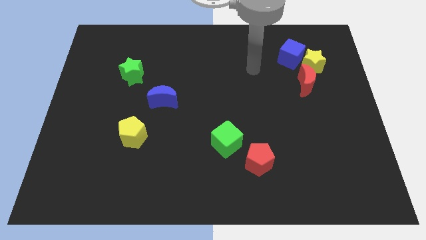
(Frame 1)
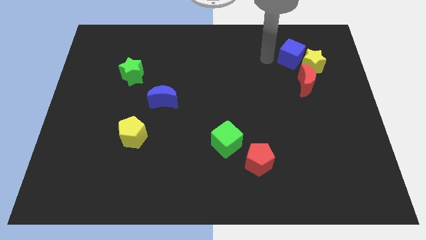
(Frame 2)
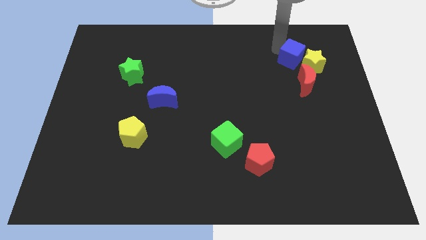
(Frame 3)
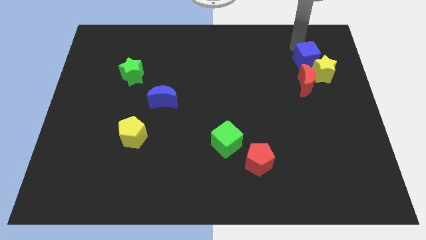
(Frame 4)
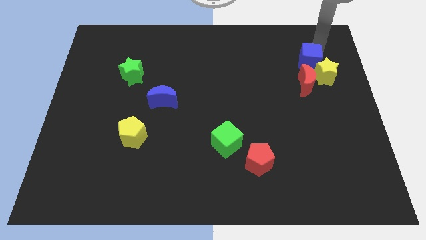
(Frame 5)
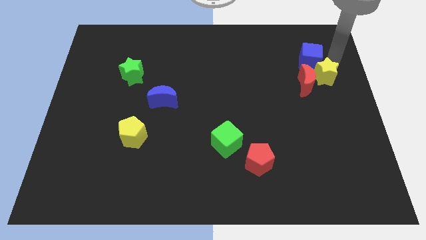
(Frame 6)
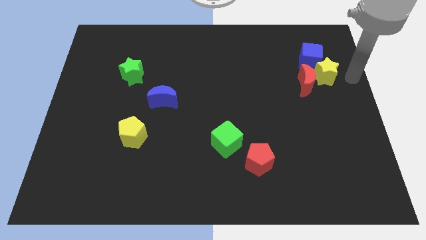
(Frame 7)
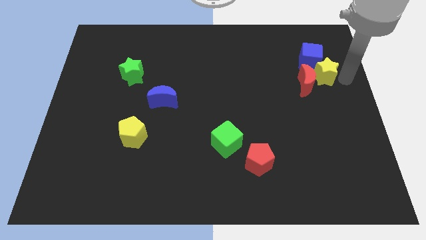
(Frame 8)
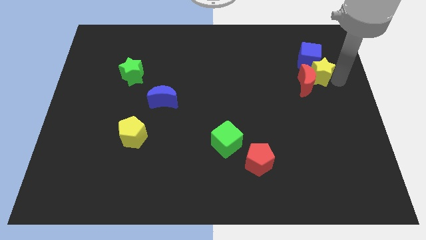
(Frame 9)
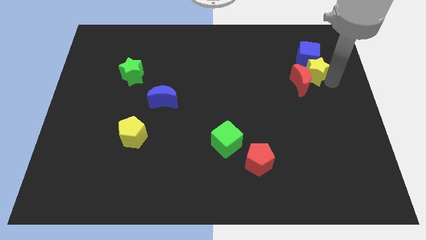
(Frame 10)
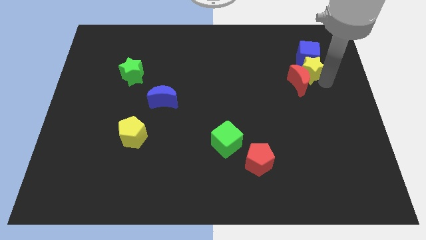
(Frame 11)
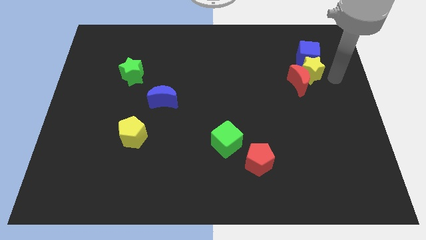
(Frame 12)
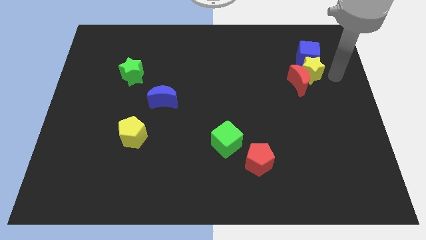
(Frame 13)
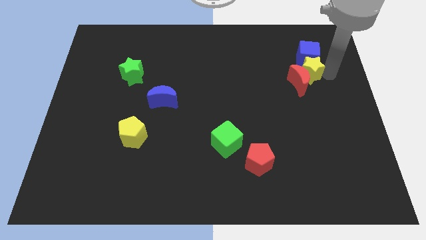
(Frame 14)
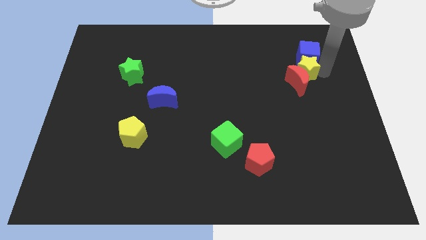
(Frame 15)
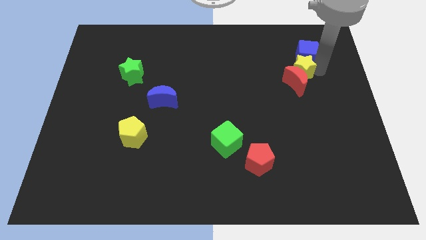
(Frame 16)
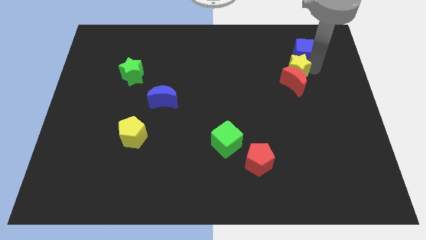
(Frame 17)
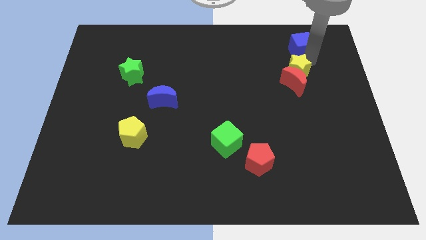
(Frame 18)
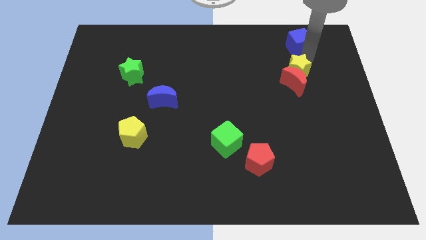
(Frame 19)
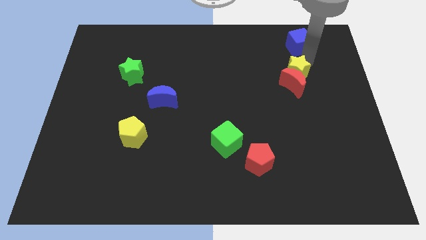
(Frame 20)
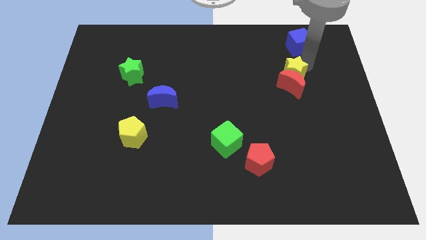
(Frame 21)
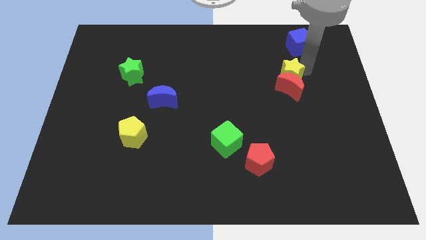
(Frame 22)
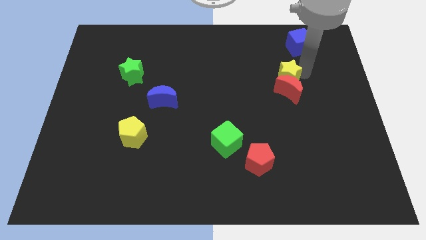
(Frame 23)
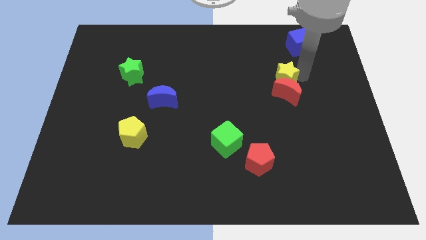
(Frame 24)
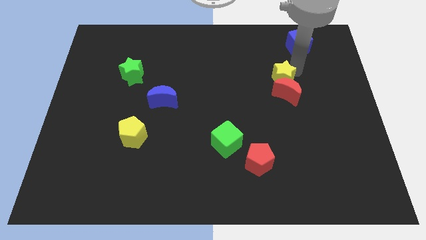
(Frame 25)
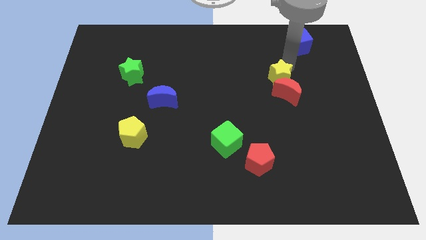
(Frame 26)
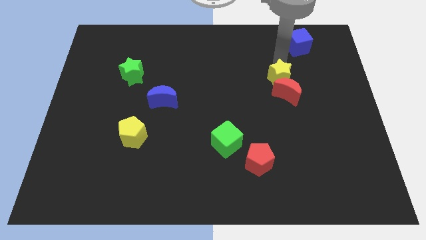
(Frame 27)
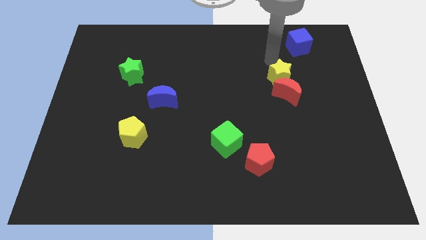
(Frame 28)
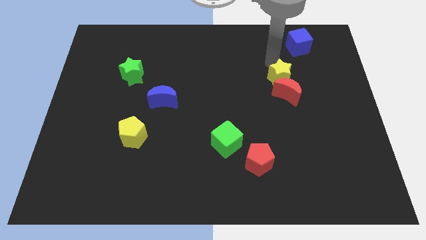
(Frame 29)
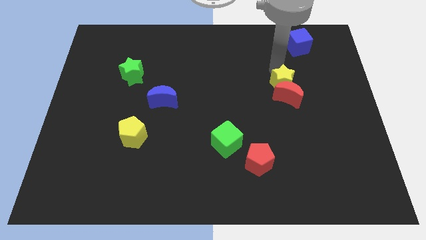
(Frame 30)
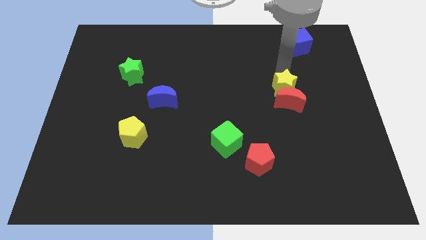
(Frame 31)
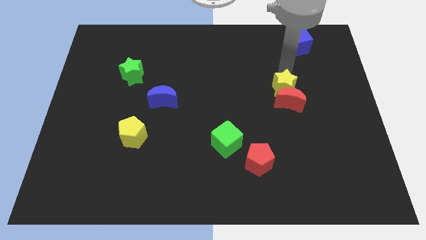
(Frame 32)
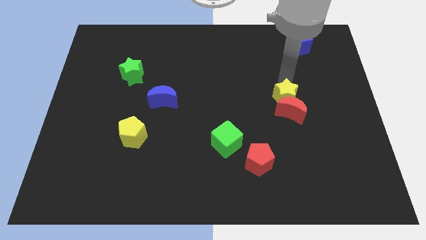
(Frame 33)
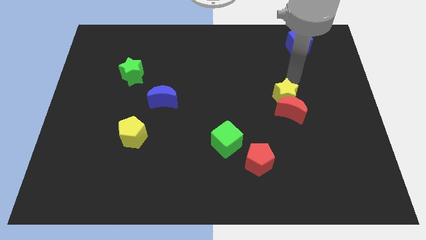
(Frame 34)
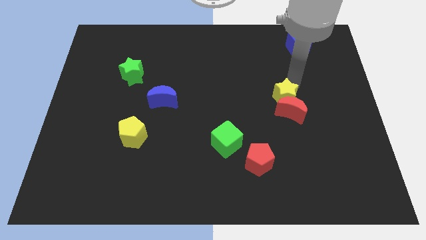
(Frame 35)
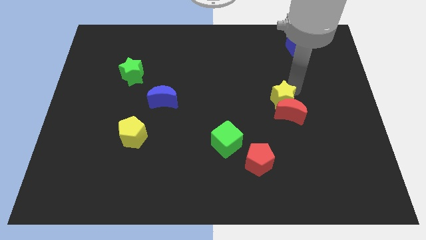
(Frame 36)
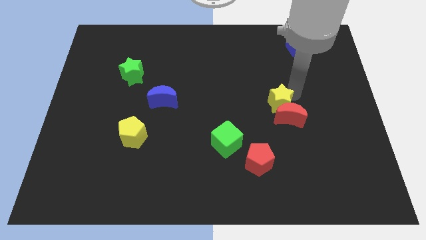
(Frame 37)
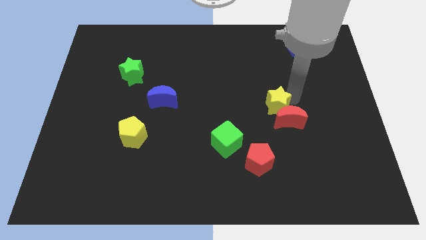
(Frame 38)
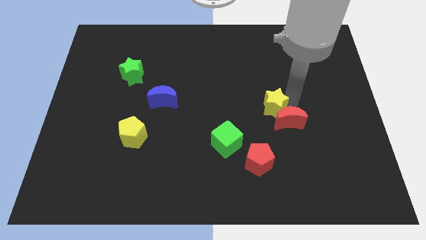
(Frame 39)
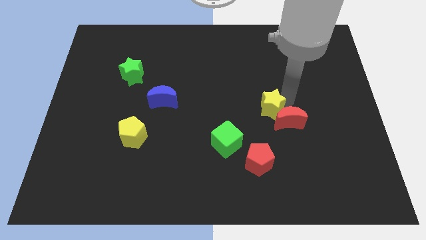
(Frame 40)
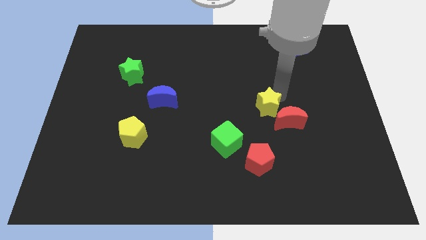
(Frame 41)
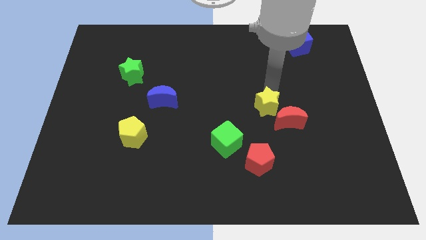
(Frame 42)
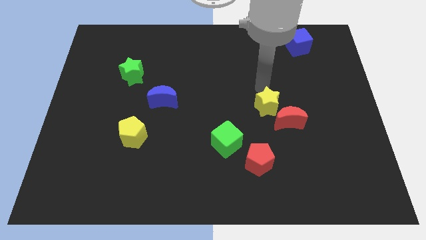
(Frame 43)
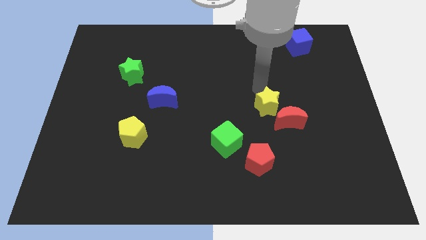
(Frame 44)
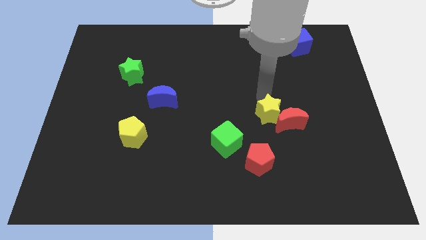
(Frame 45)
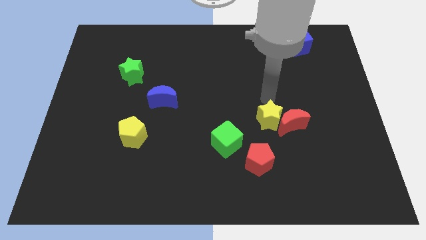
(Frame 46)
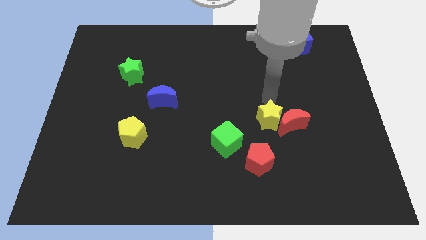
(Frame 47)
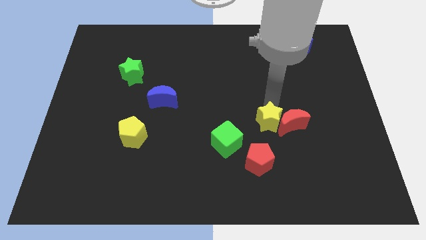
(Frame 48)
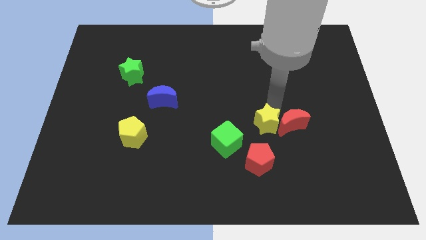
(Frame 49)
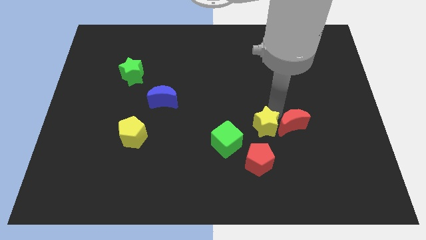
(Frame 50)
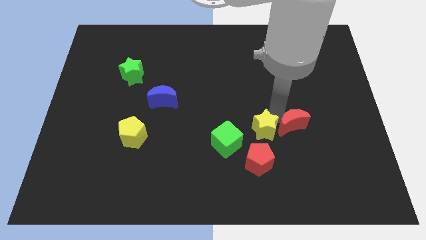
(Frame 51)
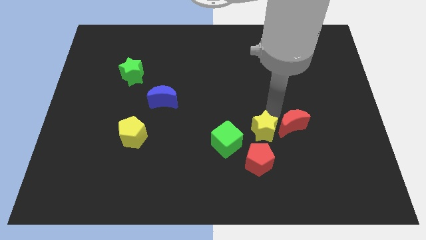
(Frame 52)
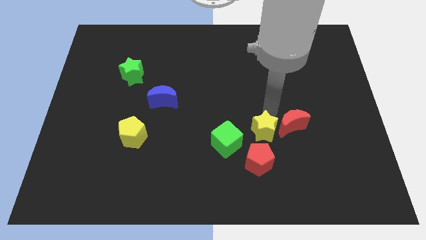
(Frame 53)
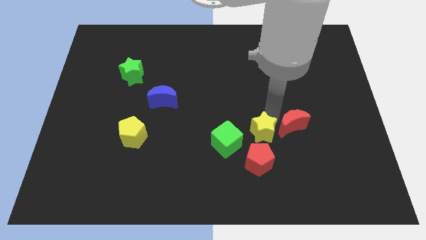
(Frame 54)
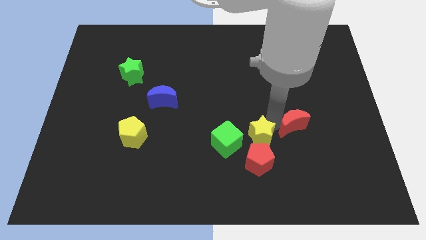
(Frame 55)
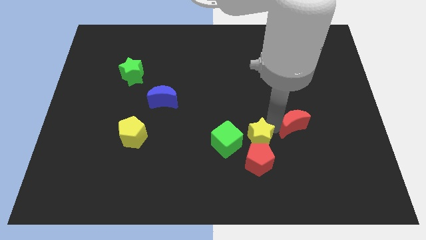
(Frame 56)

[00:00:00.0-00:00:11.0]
move the yellow star towards the red pentagon

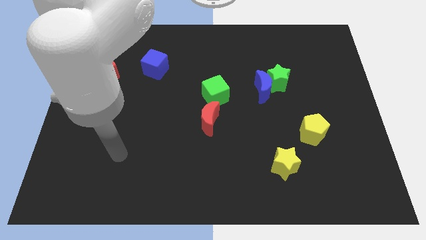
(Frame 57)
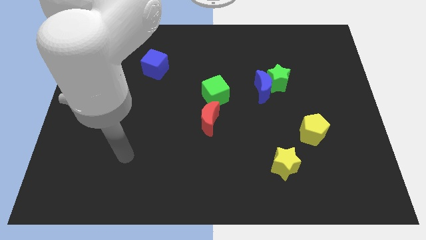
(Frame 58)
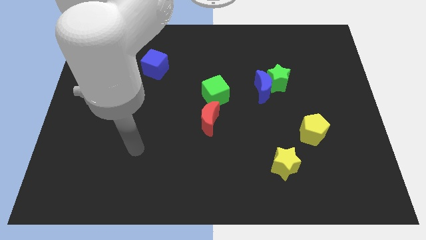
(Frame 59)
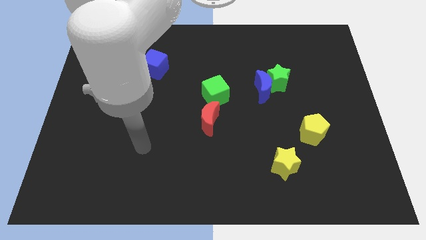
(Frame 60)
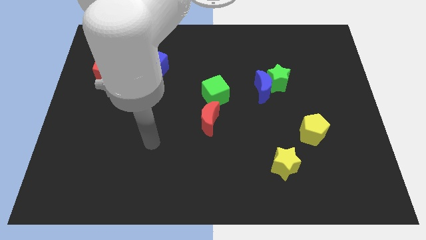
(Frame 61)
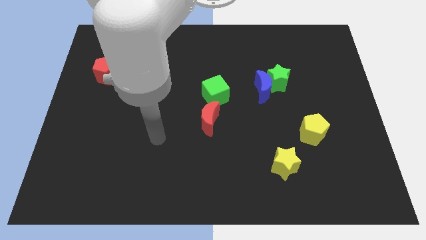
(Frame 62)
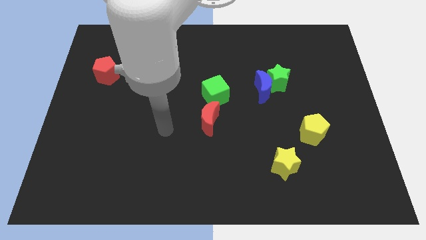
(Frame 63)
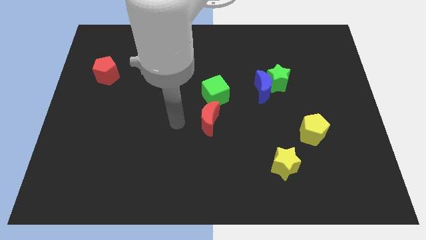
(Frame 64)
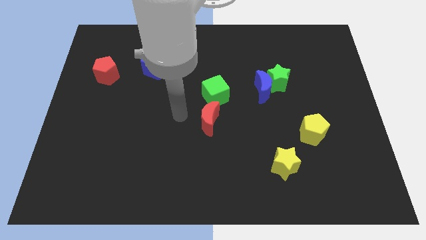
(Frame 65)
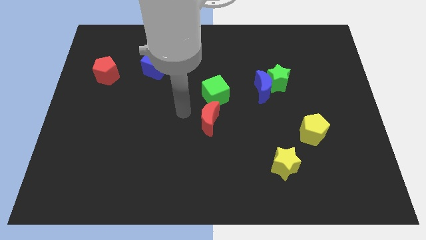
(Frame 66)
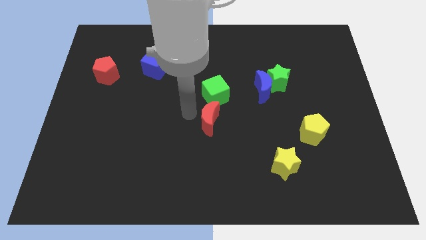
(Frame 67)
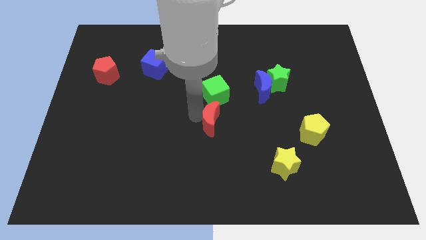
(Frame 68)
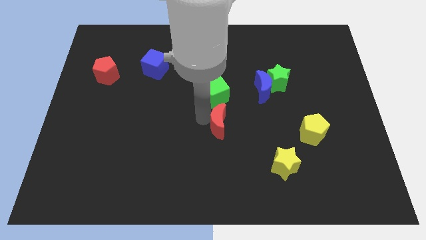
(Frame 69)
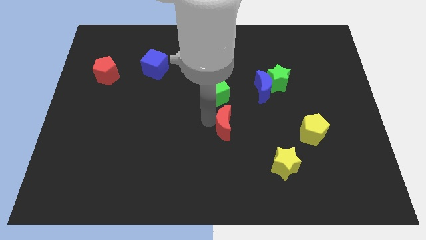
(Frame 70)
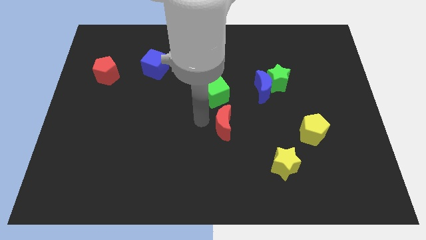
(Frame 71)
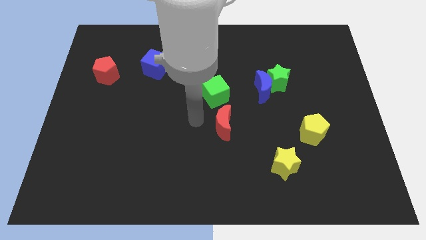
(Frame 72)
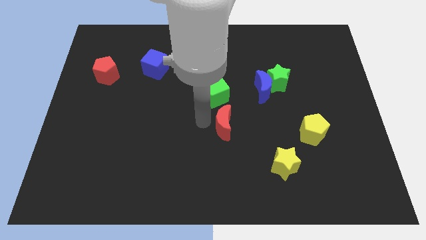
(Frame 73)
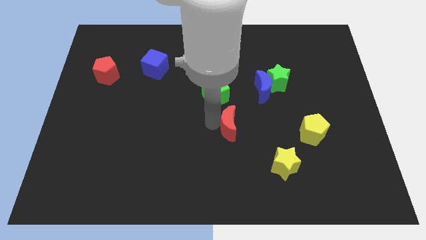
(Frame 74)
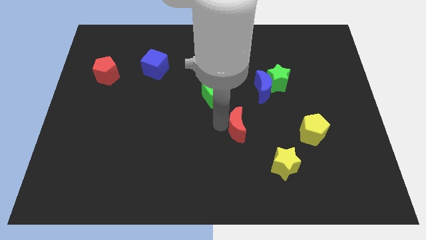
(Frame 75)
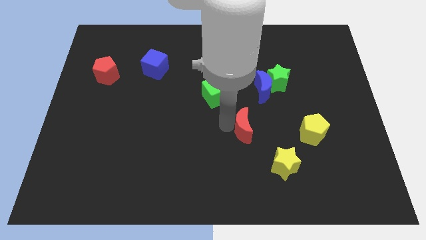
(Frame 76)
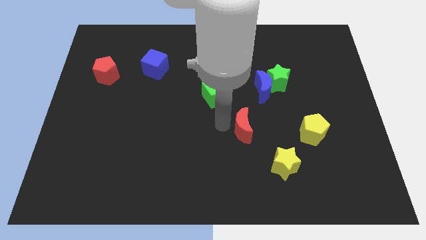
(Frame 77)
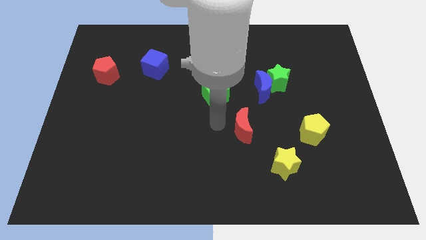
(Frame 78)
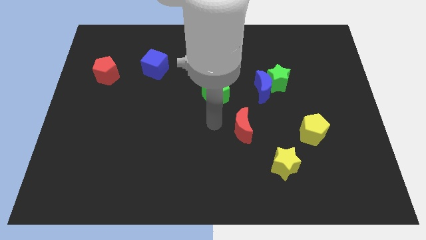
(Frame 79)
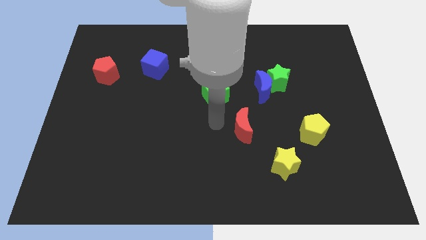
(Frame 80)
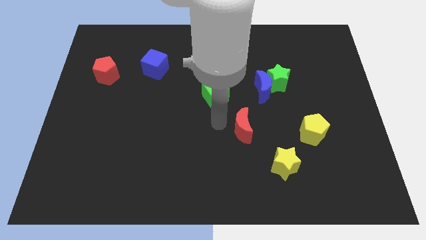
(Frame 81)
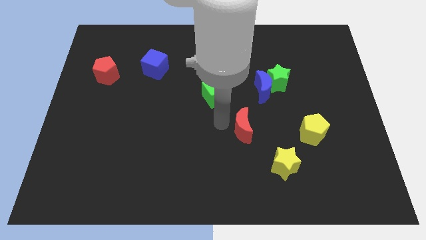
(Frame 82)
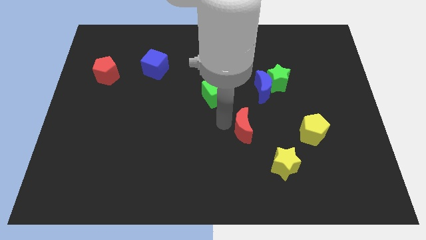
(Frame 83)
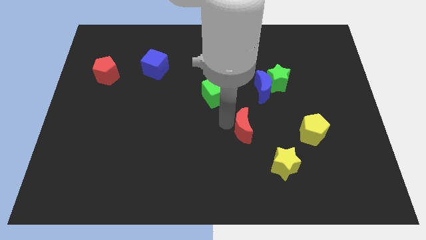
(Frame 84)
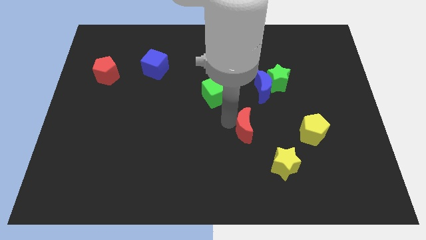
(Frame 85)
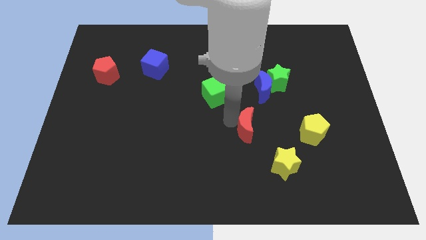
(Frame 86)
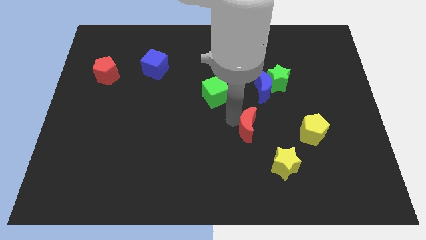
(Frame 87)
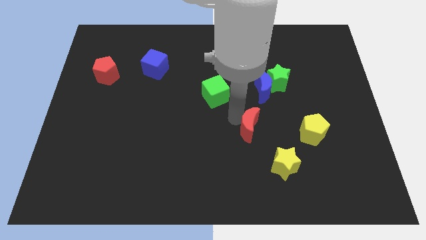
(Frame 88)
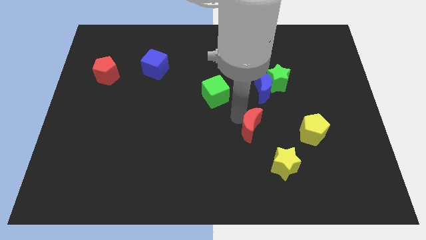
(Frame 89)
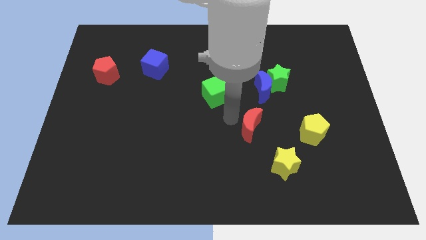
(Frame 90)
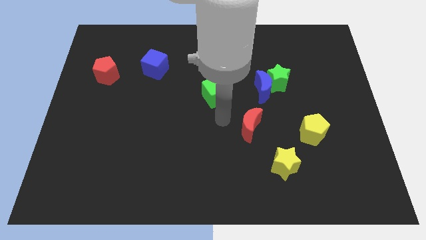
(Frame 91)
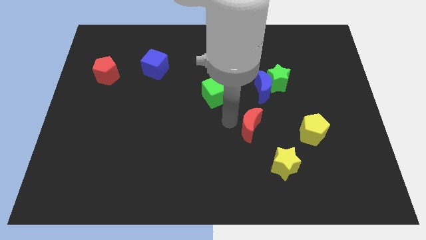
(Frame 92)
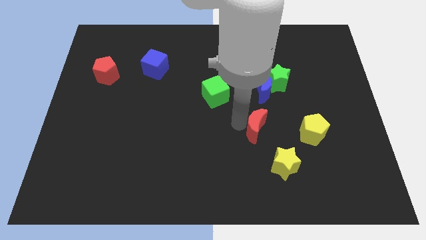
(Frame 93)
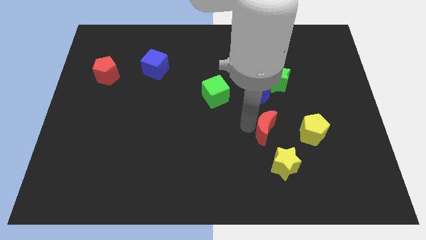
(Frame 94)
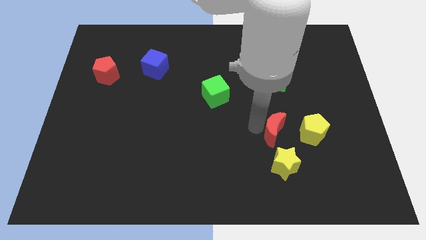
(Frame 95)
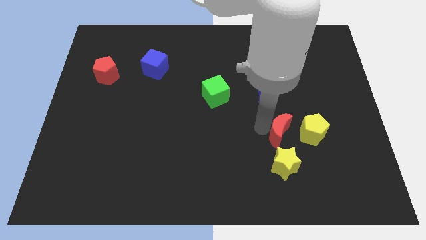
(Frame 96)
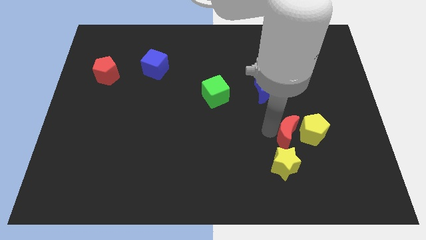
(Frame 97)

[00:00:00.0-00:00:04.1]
push the red moon towards the yellow pentagon
